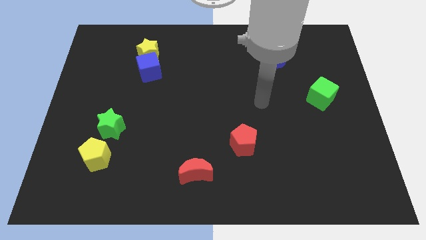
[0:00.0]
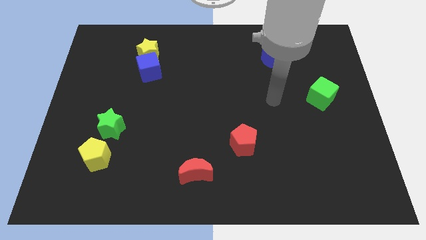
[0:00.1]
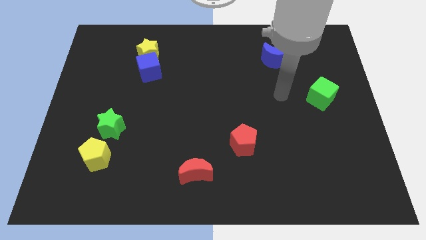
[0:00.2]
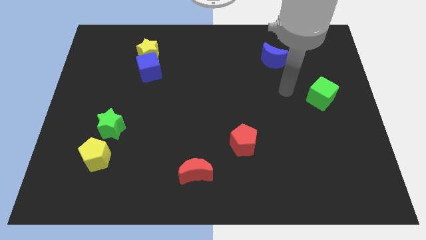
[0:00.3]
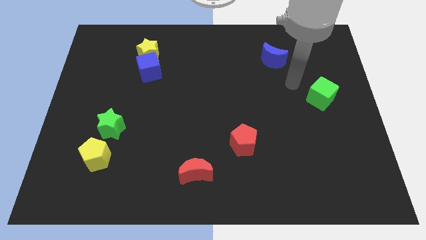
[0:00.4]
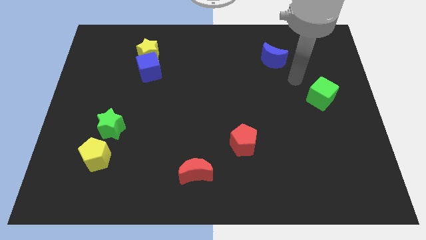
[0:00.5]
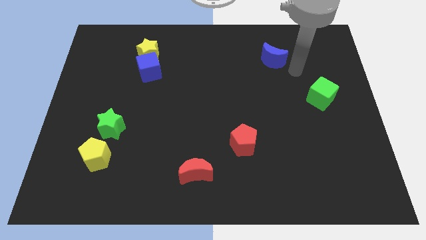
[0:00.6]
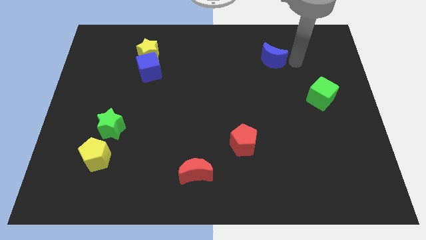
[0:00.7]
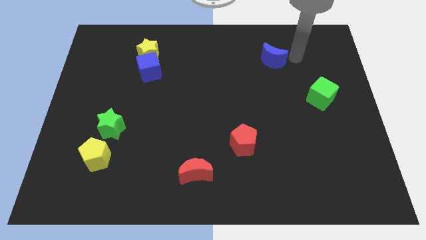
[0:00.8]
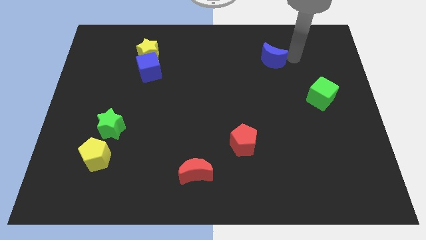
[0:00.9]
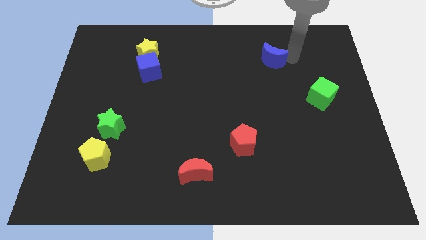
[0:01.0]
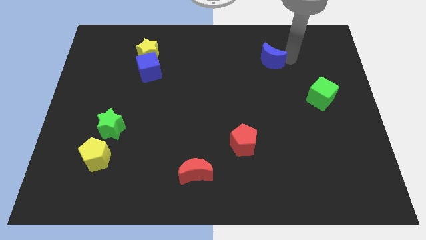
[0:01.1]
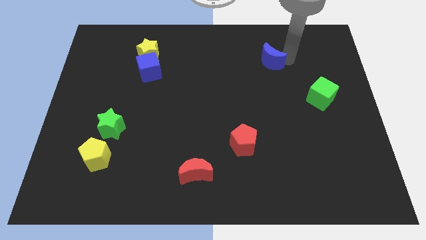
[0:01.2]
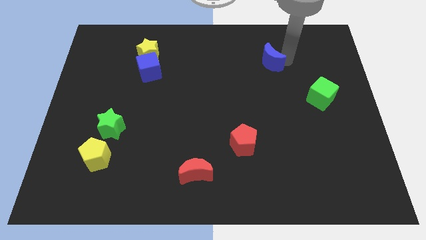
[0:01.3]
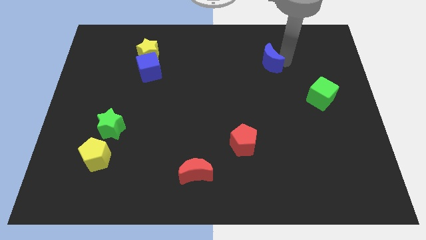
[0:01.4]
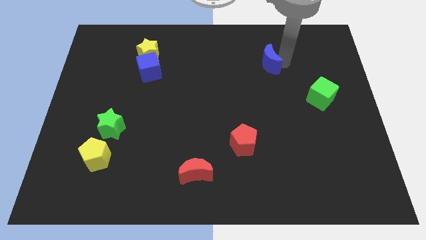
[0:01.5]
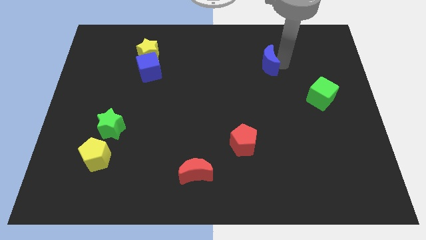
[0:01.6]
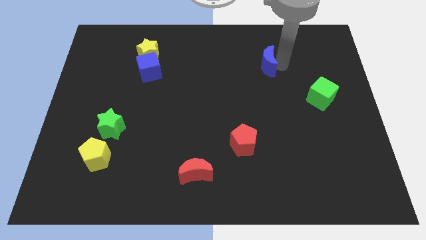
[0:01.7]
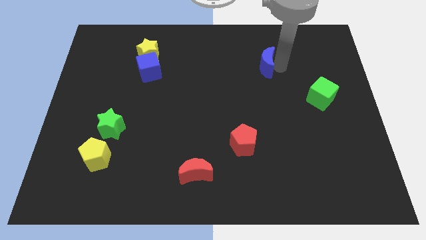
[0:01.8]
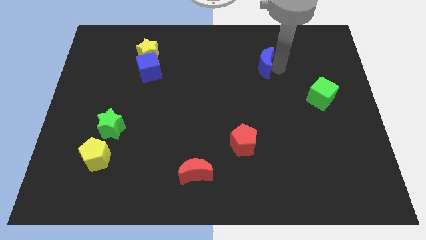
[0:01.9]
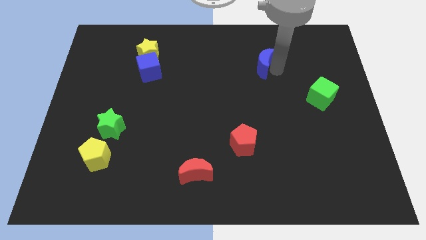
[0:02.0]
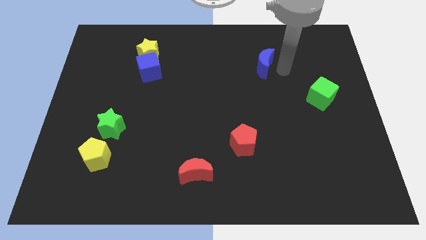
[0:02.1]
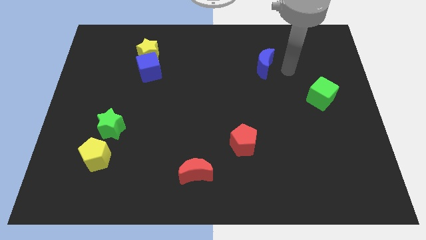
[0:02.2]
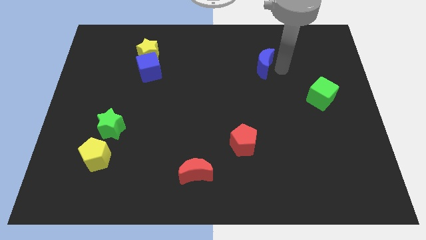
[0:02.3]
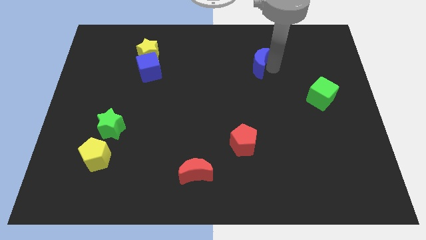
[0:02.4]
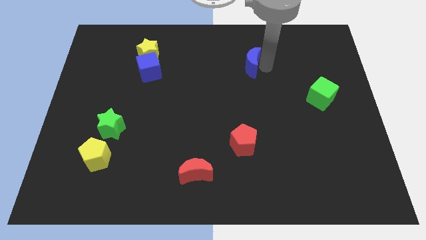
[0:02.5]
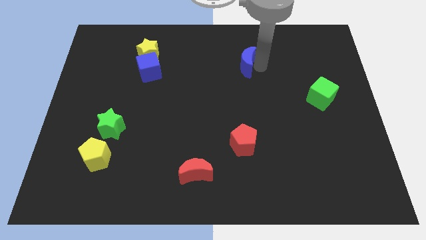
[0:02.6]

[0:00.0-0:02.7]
move the blue moon somewhat to the left

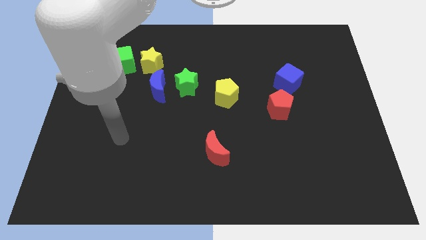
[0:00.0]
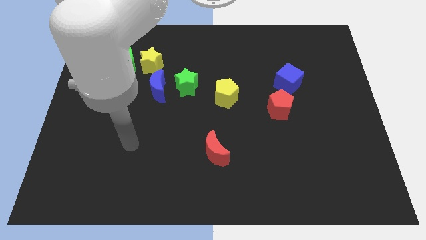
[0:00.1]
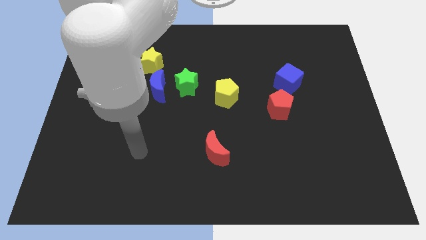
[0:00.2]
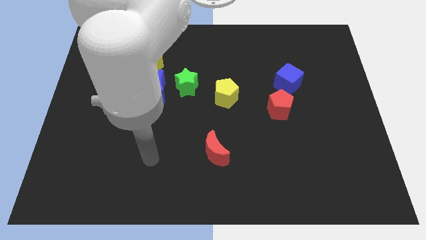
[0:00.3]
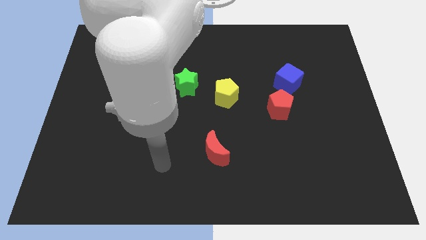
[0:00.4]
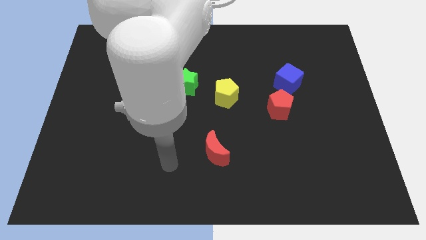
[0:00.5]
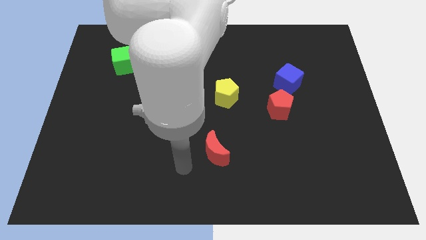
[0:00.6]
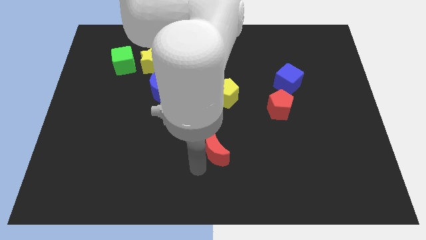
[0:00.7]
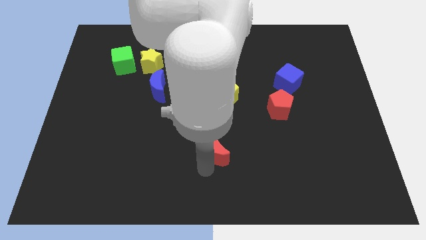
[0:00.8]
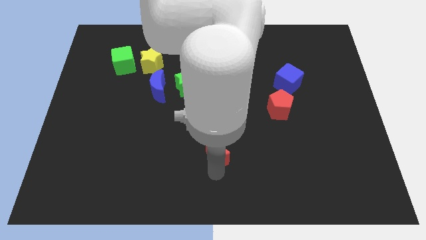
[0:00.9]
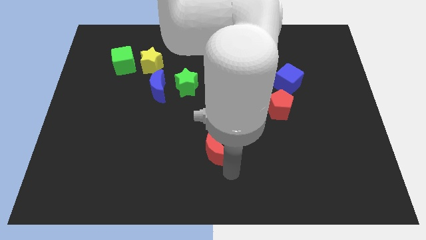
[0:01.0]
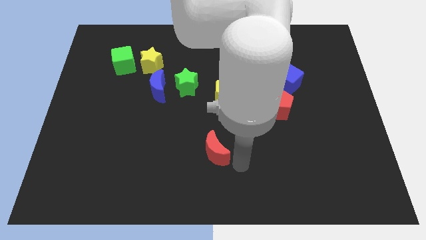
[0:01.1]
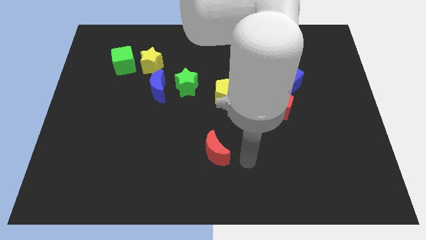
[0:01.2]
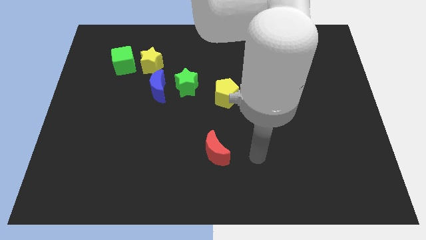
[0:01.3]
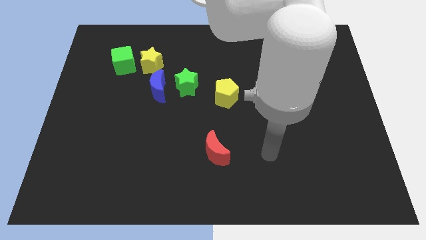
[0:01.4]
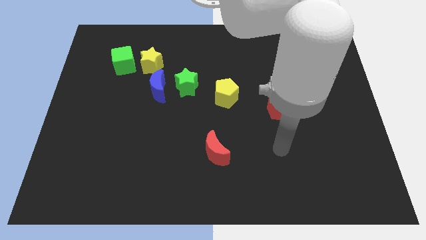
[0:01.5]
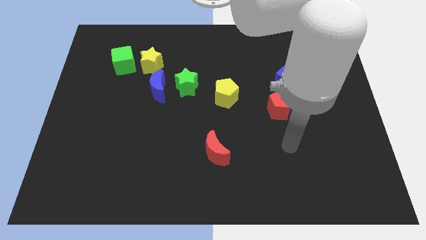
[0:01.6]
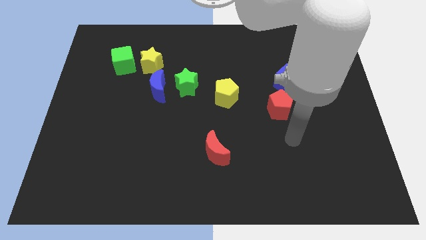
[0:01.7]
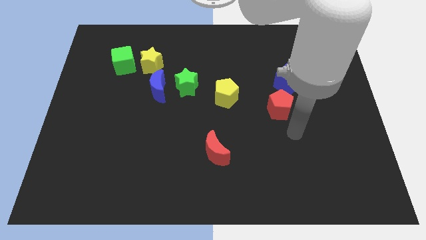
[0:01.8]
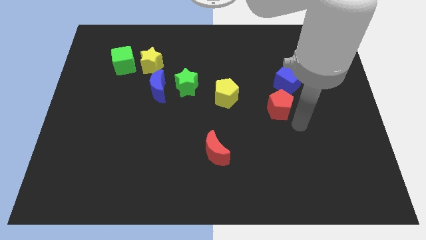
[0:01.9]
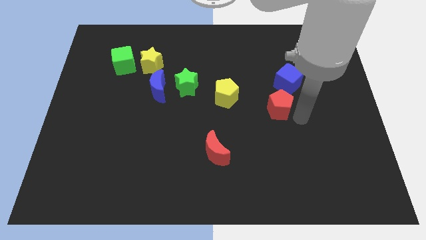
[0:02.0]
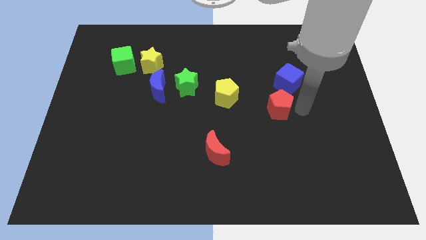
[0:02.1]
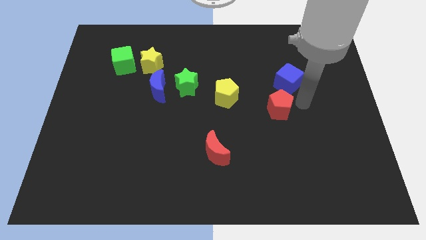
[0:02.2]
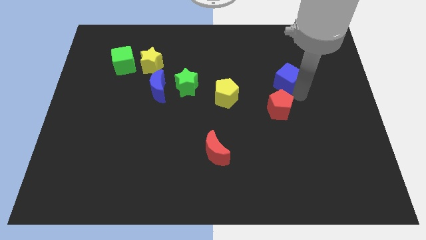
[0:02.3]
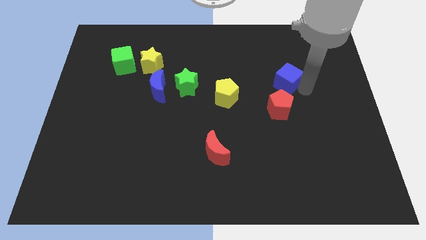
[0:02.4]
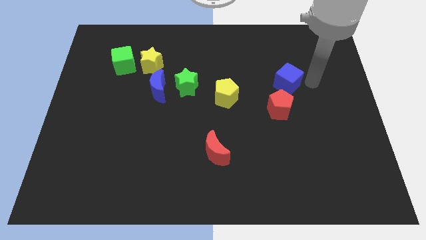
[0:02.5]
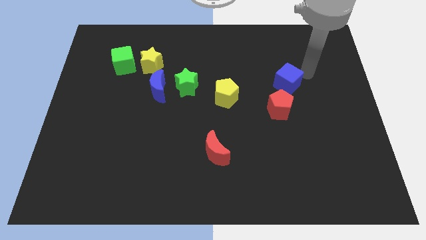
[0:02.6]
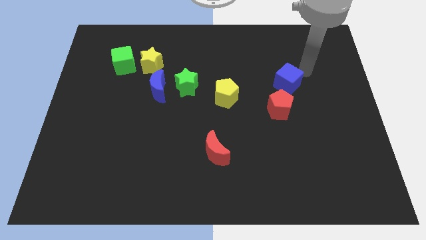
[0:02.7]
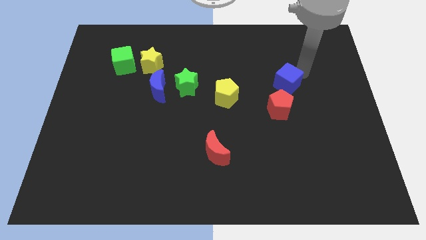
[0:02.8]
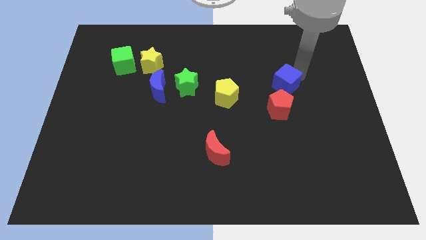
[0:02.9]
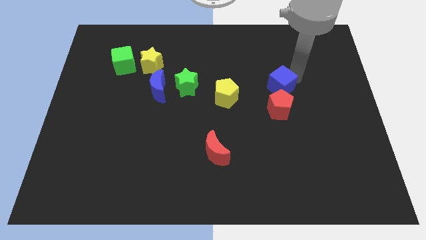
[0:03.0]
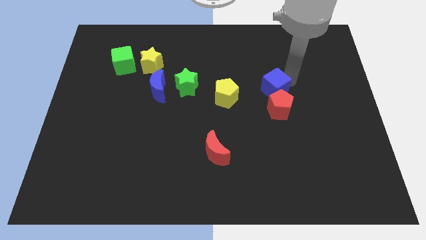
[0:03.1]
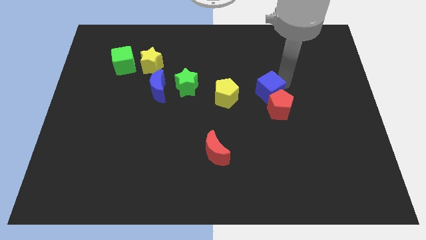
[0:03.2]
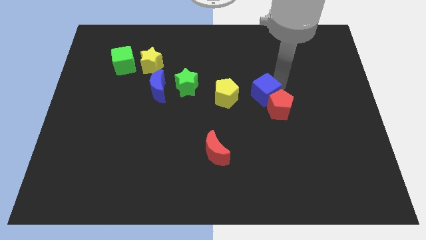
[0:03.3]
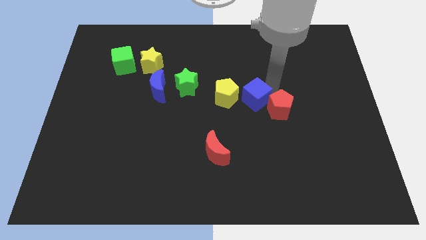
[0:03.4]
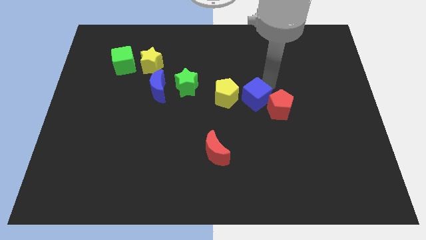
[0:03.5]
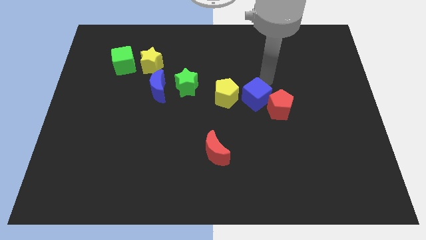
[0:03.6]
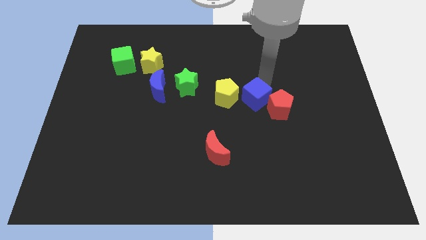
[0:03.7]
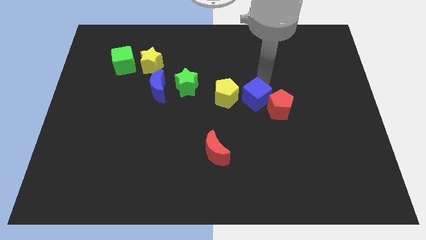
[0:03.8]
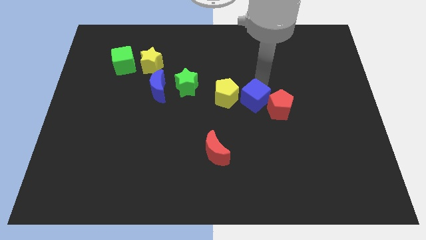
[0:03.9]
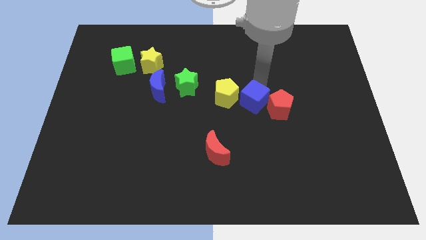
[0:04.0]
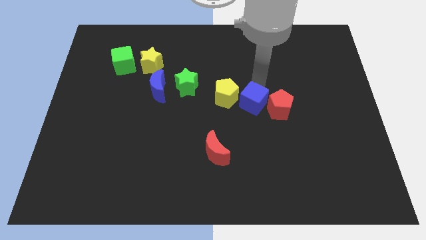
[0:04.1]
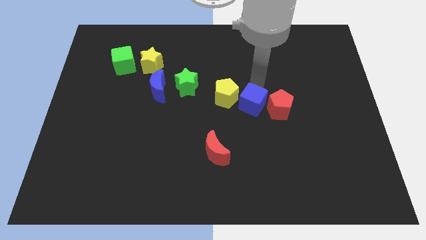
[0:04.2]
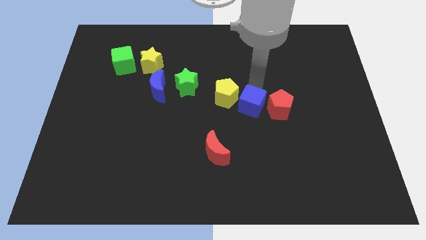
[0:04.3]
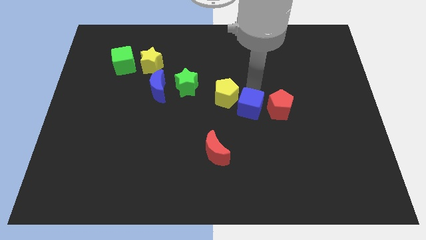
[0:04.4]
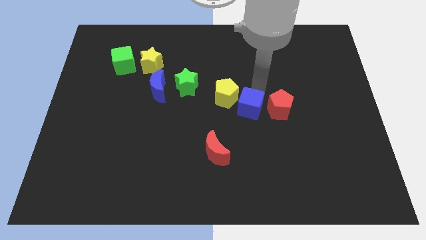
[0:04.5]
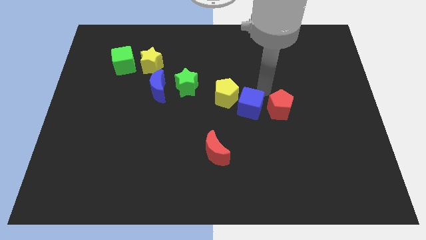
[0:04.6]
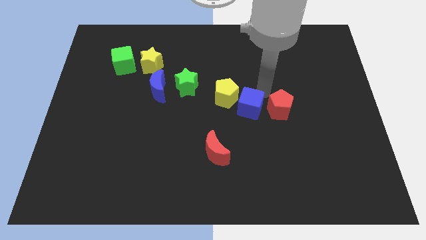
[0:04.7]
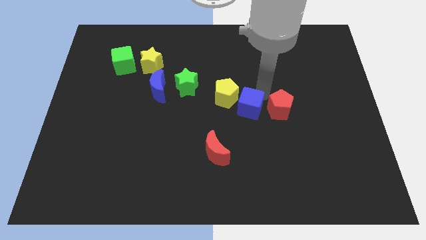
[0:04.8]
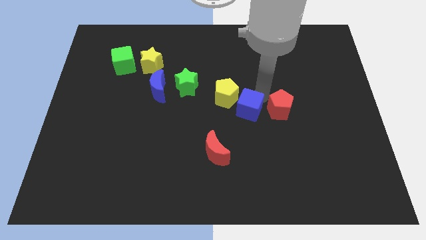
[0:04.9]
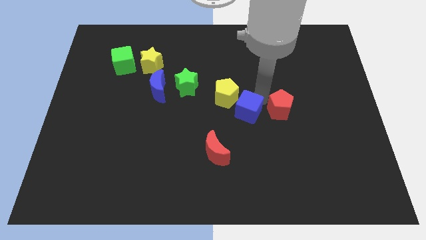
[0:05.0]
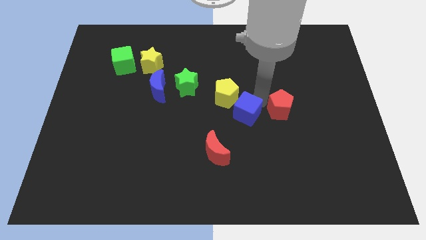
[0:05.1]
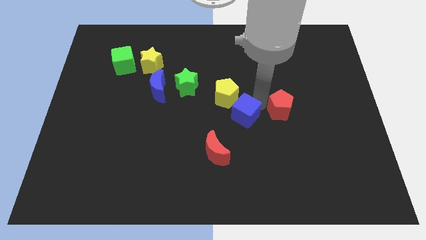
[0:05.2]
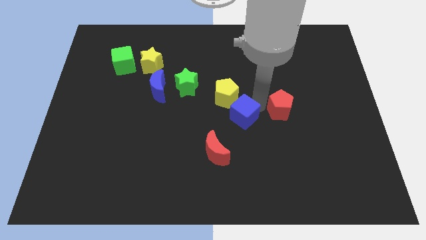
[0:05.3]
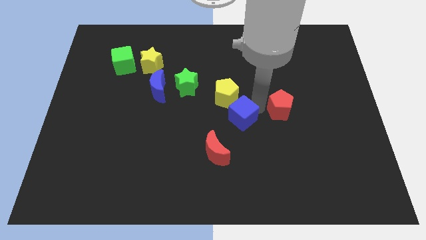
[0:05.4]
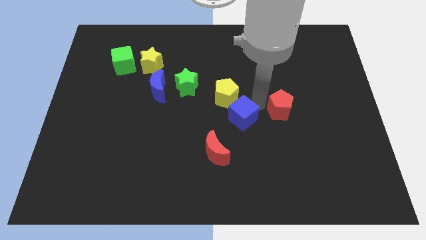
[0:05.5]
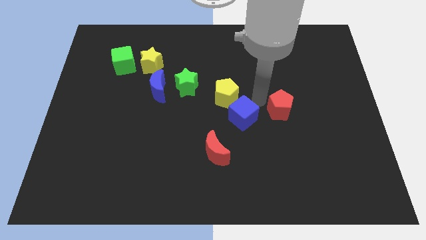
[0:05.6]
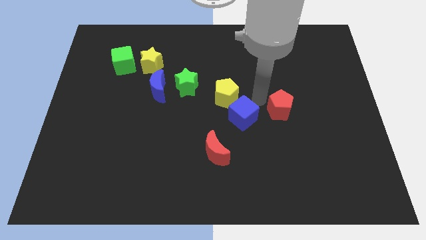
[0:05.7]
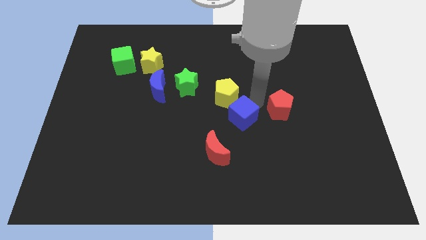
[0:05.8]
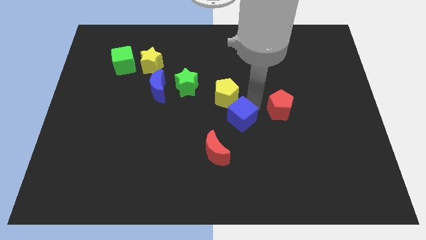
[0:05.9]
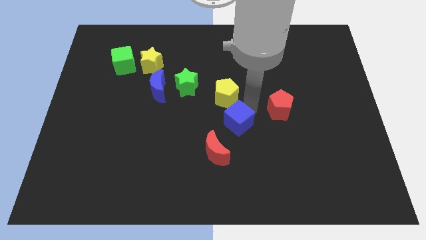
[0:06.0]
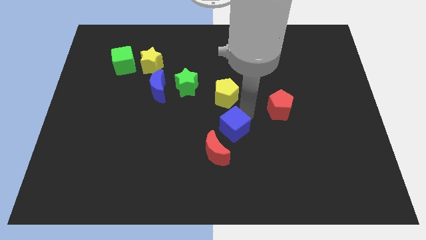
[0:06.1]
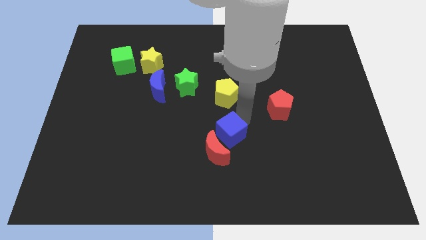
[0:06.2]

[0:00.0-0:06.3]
slide the blue cube downwards and to the left
